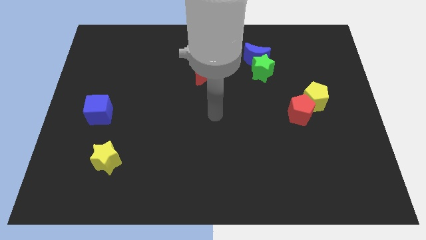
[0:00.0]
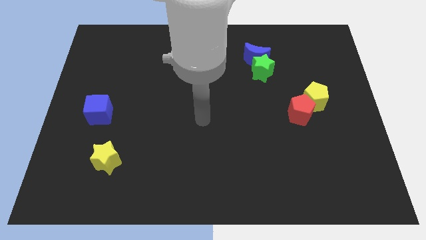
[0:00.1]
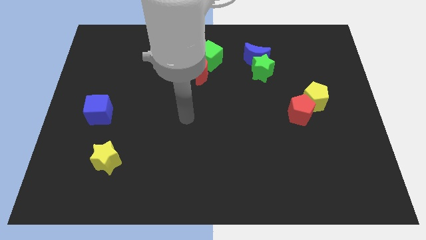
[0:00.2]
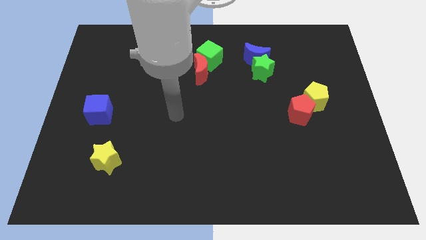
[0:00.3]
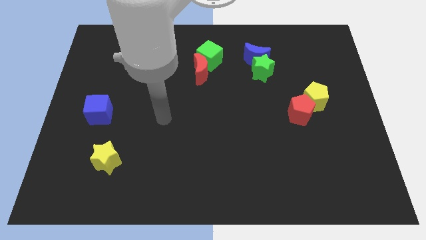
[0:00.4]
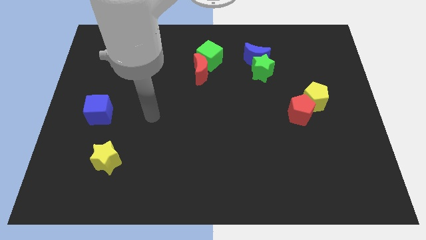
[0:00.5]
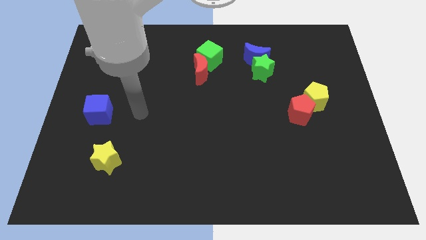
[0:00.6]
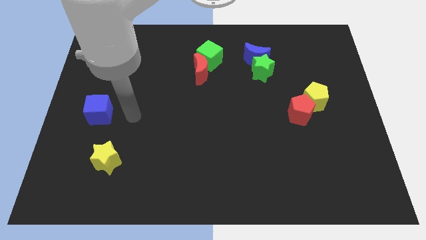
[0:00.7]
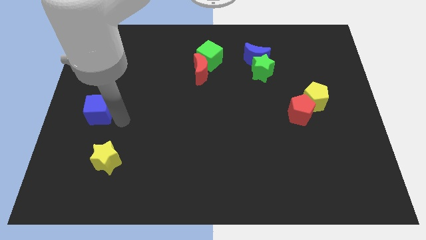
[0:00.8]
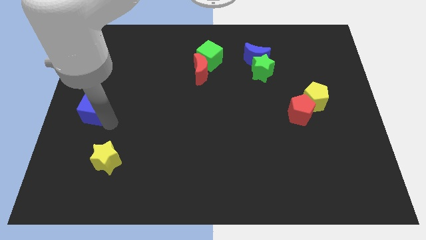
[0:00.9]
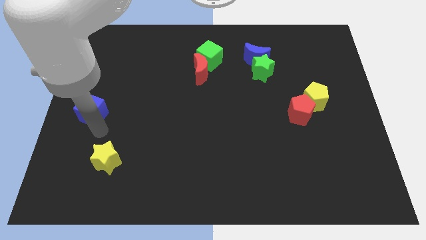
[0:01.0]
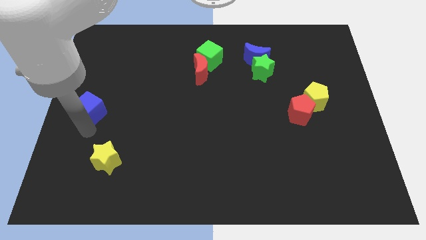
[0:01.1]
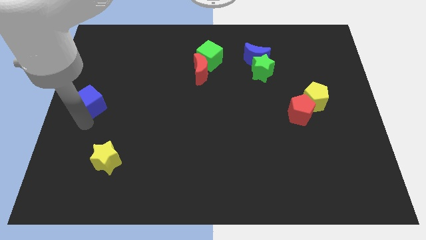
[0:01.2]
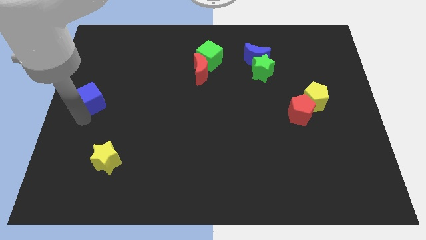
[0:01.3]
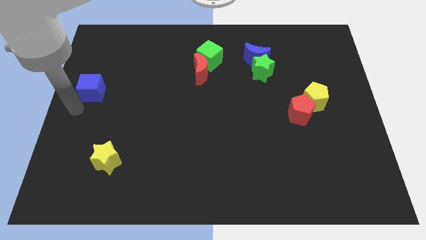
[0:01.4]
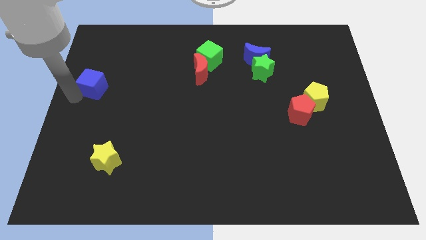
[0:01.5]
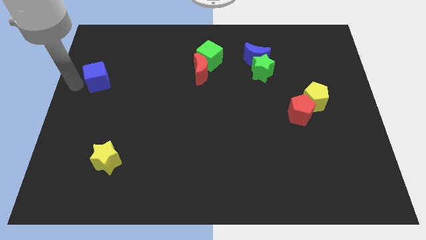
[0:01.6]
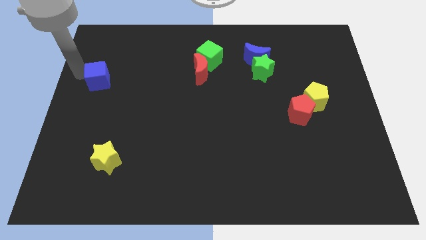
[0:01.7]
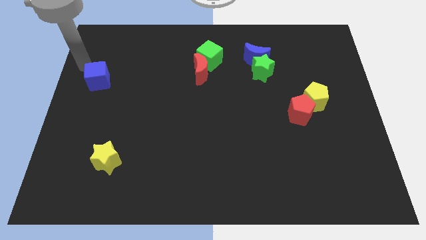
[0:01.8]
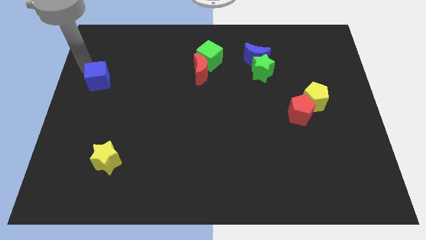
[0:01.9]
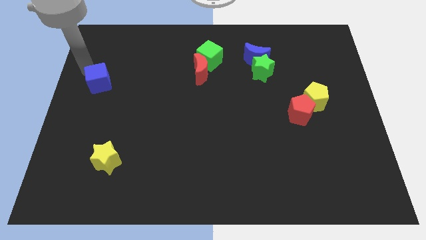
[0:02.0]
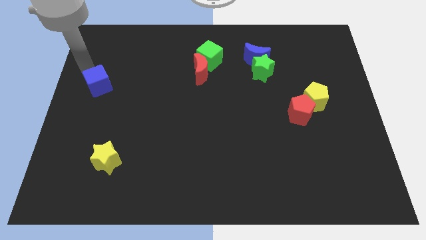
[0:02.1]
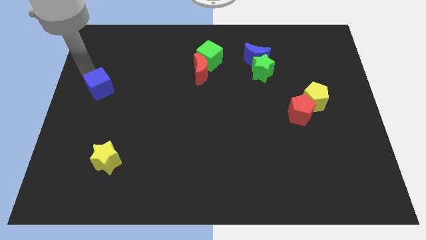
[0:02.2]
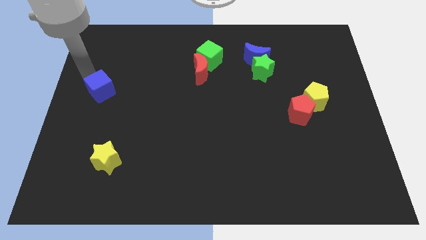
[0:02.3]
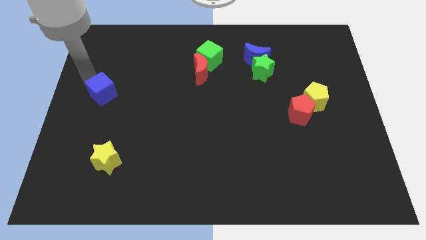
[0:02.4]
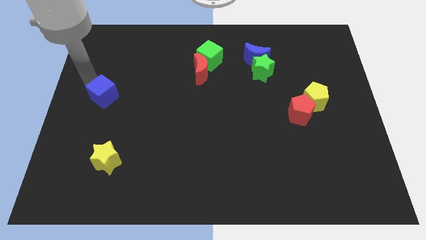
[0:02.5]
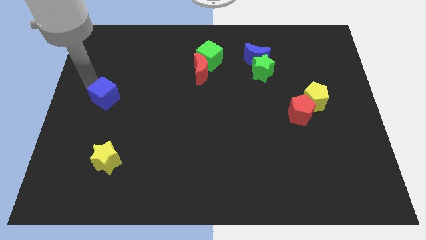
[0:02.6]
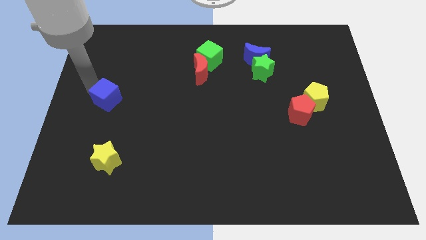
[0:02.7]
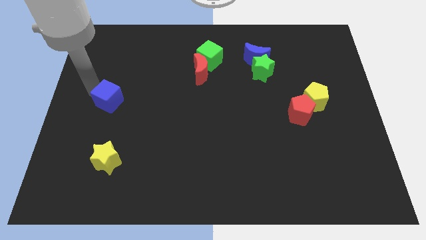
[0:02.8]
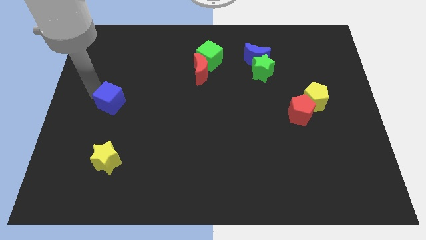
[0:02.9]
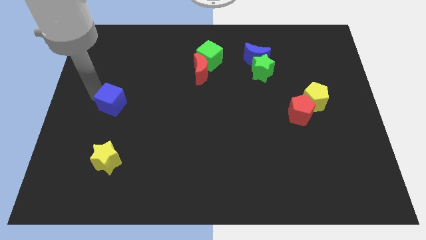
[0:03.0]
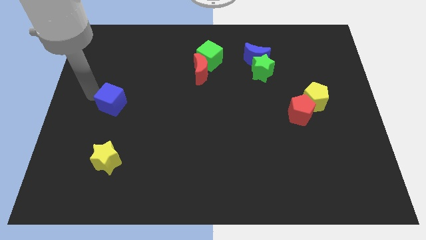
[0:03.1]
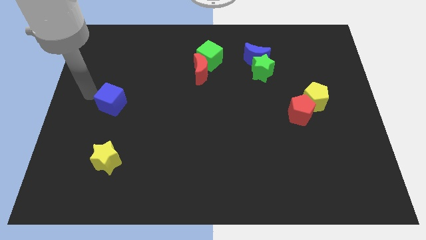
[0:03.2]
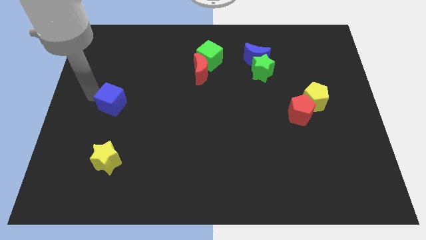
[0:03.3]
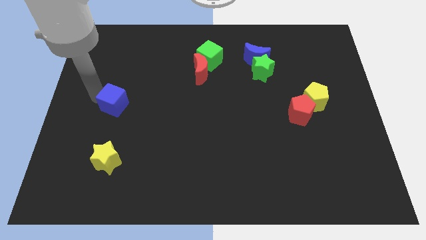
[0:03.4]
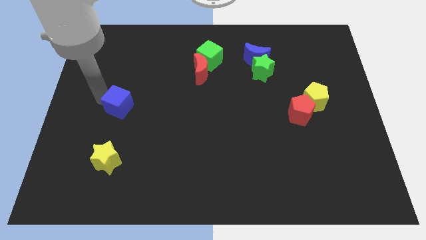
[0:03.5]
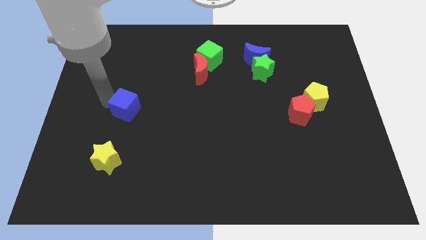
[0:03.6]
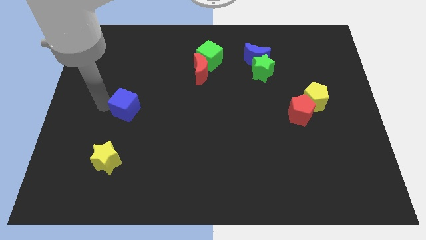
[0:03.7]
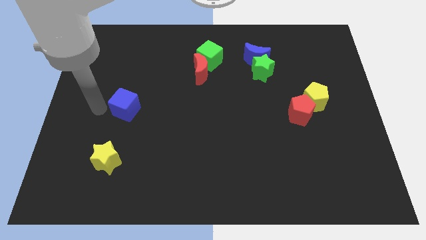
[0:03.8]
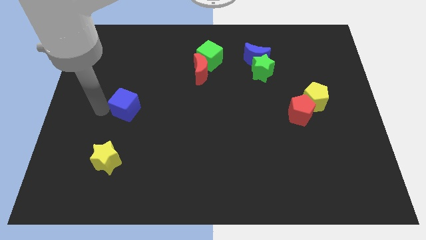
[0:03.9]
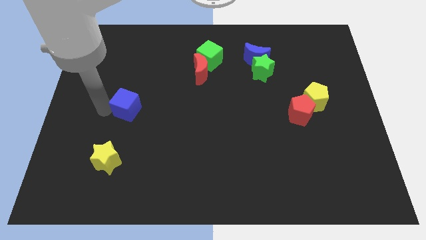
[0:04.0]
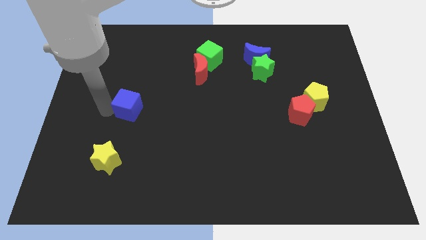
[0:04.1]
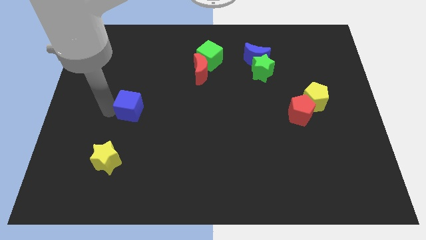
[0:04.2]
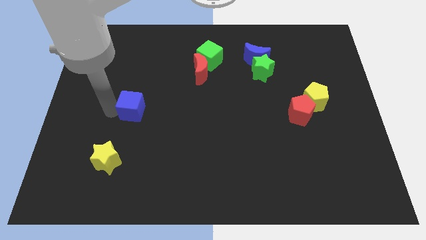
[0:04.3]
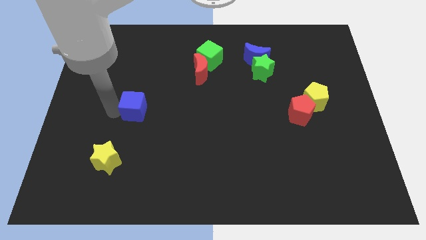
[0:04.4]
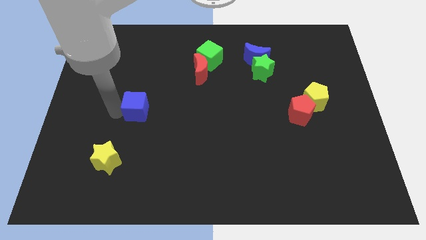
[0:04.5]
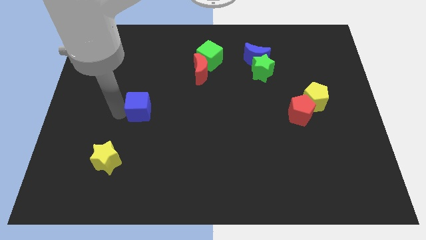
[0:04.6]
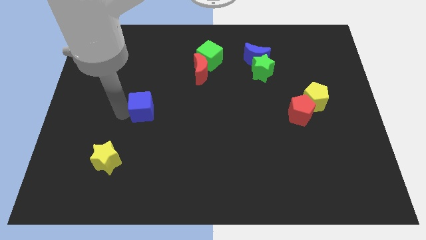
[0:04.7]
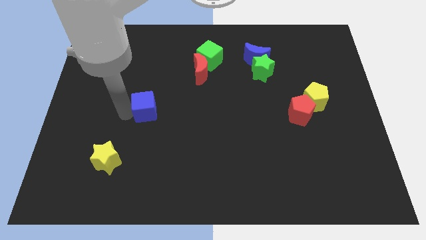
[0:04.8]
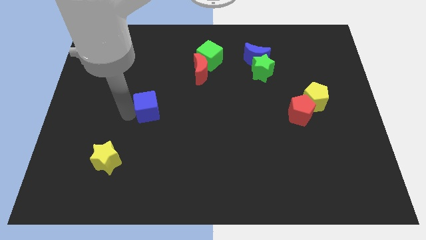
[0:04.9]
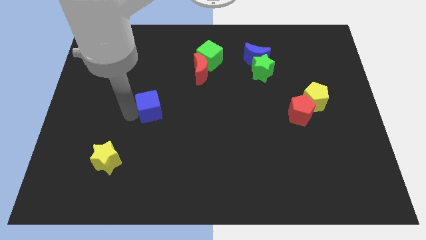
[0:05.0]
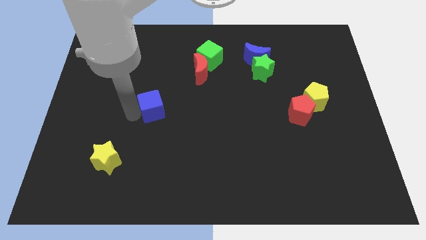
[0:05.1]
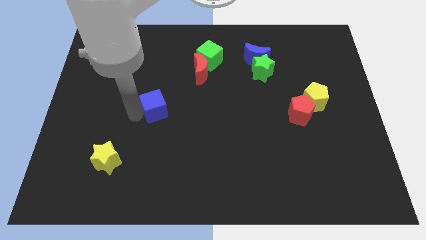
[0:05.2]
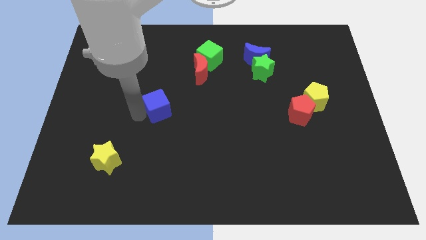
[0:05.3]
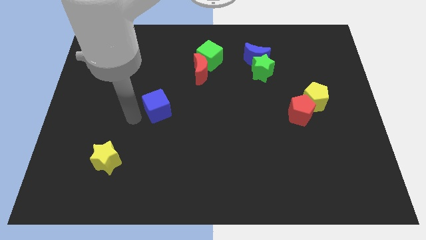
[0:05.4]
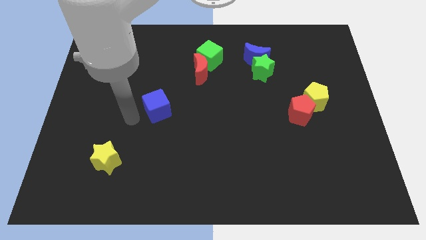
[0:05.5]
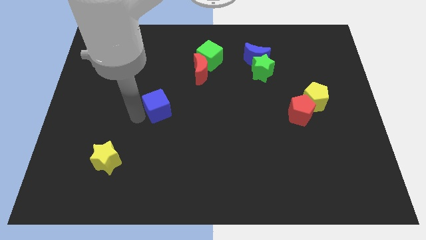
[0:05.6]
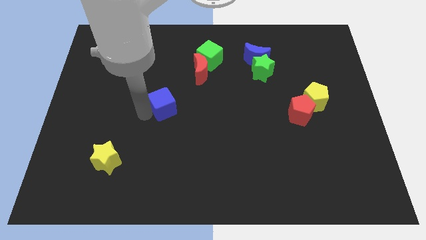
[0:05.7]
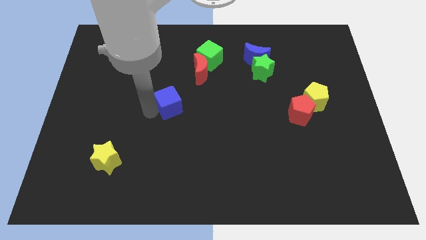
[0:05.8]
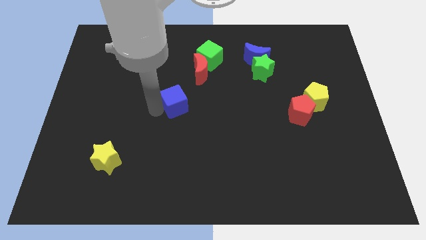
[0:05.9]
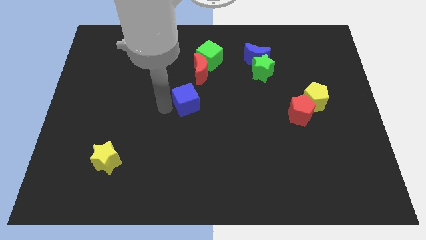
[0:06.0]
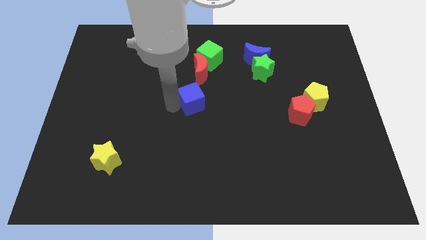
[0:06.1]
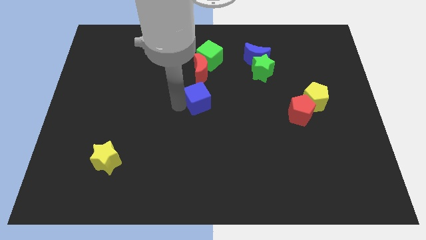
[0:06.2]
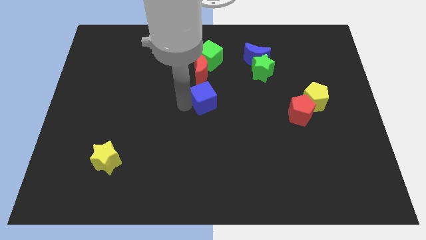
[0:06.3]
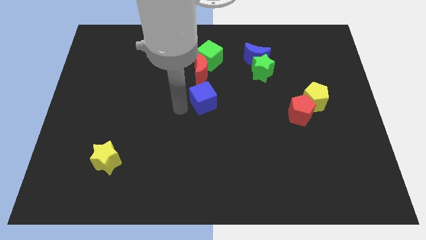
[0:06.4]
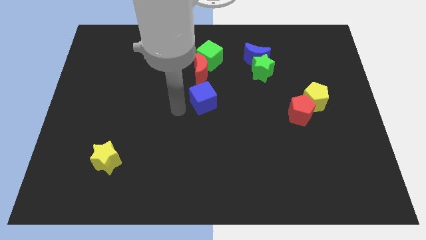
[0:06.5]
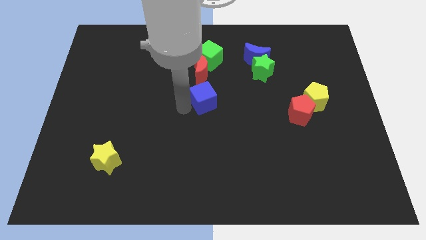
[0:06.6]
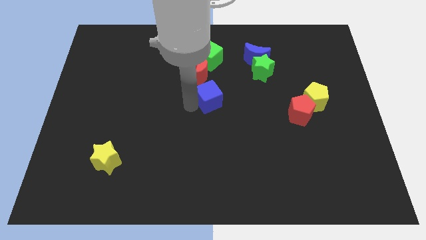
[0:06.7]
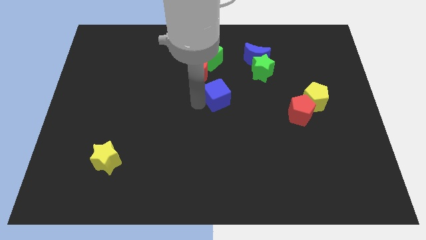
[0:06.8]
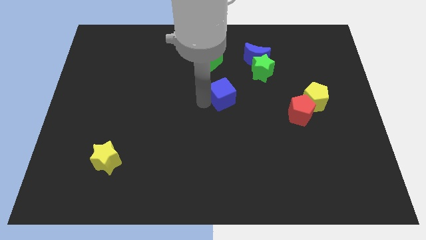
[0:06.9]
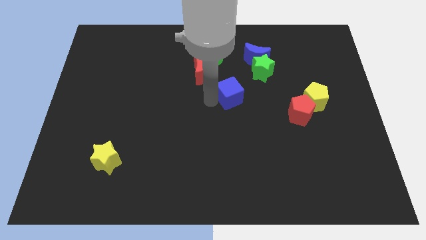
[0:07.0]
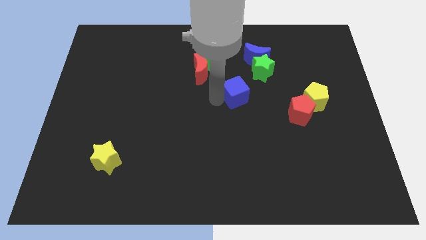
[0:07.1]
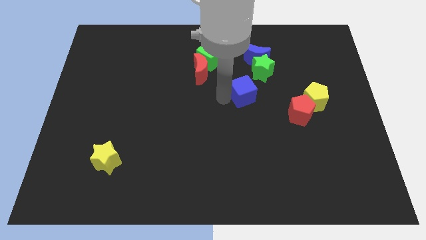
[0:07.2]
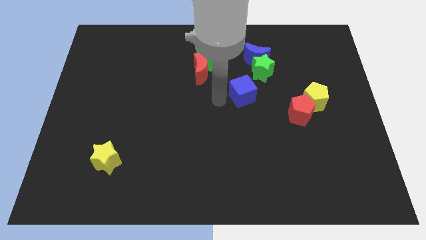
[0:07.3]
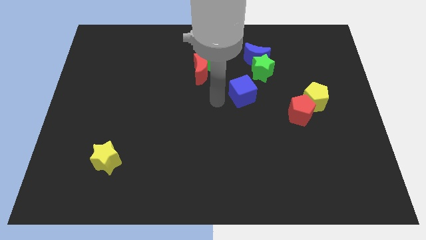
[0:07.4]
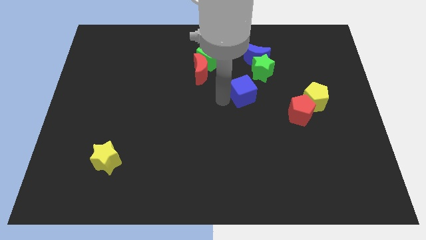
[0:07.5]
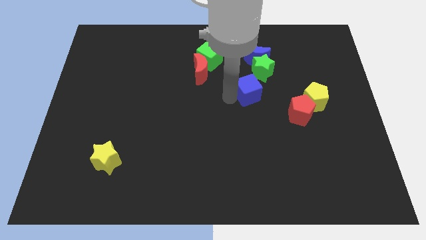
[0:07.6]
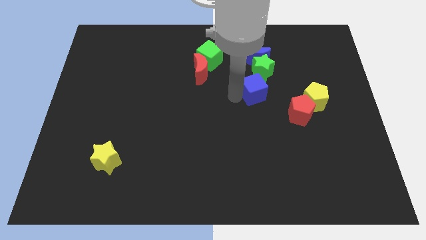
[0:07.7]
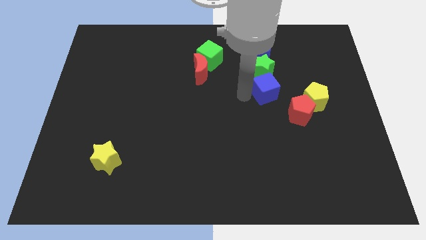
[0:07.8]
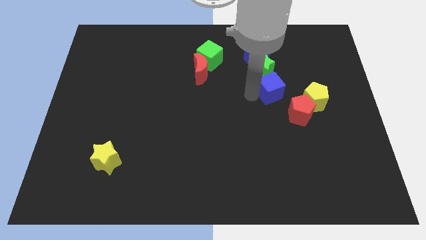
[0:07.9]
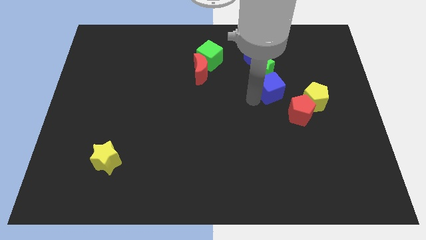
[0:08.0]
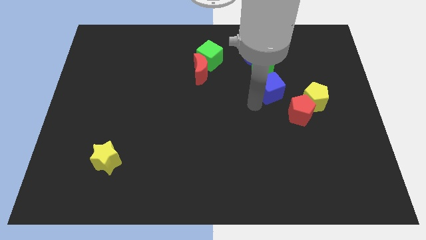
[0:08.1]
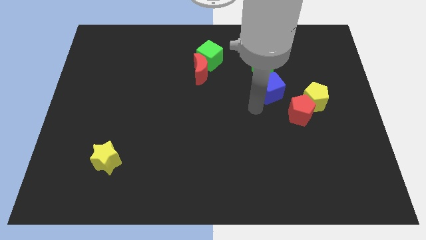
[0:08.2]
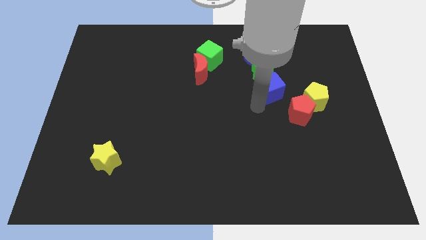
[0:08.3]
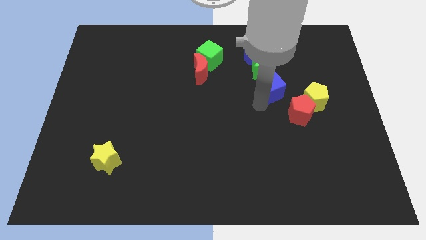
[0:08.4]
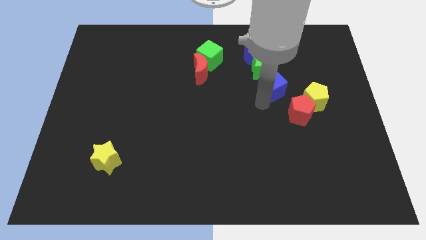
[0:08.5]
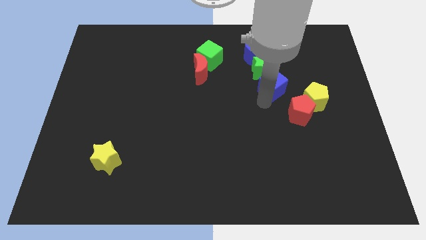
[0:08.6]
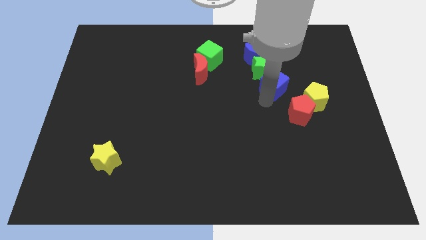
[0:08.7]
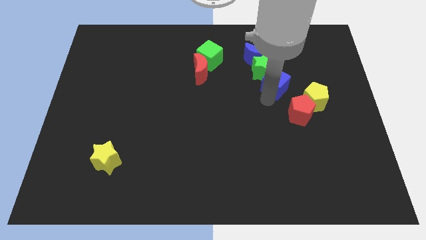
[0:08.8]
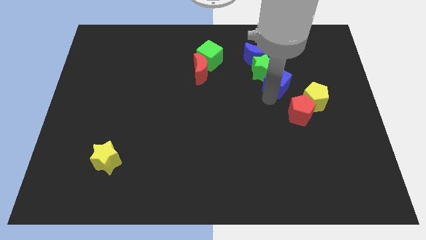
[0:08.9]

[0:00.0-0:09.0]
slide the blue cube to the right of the green star
